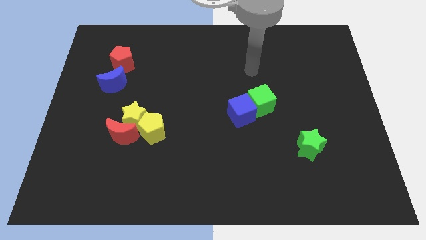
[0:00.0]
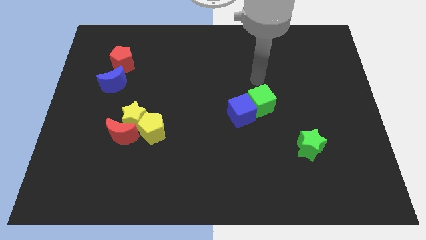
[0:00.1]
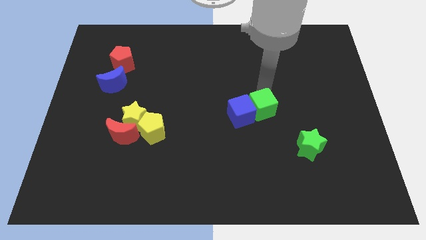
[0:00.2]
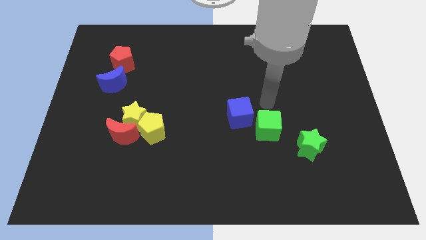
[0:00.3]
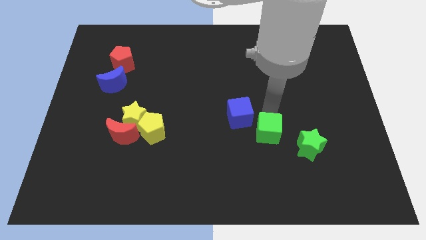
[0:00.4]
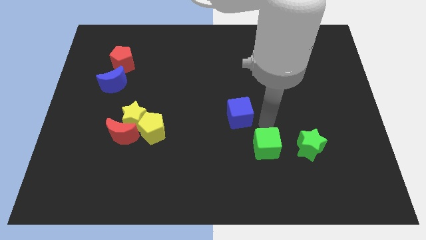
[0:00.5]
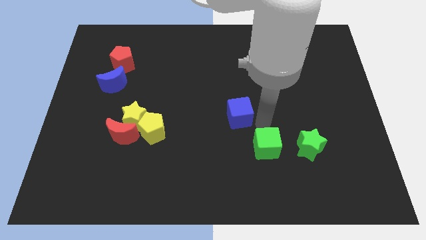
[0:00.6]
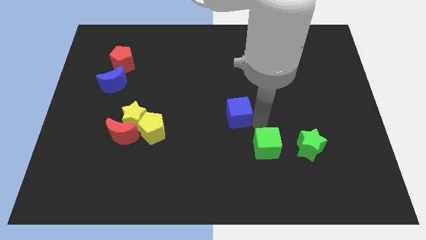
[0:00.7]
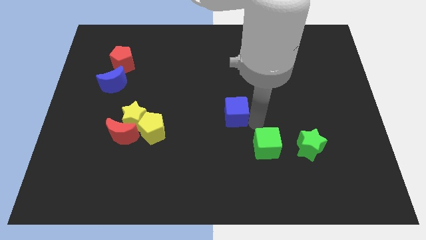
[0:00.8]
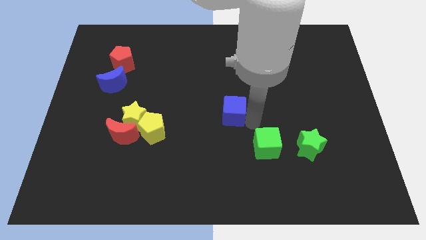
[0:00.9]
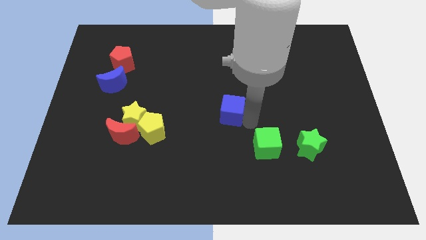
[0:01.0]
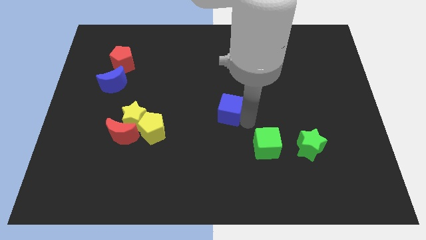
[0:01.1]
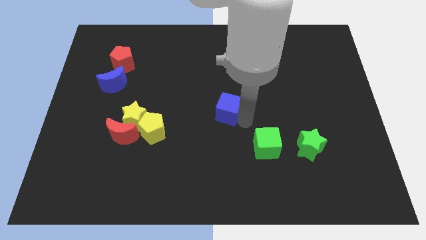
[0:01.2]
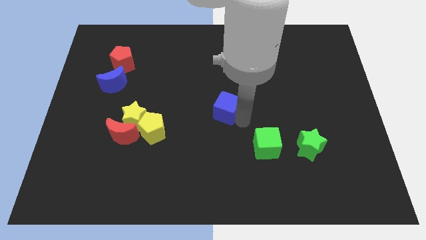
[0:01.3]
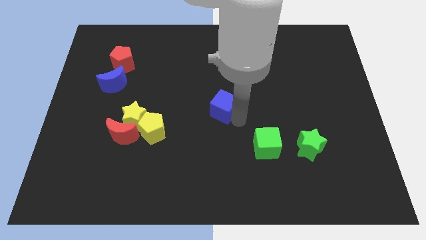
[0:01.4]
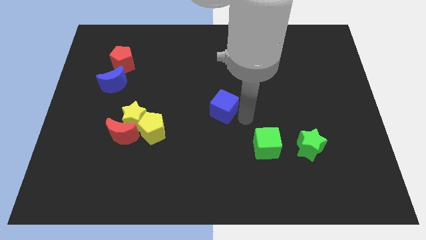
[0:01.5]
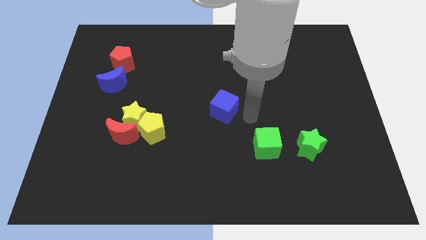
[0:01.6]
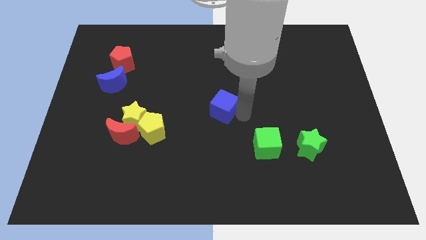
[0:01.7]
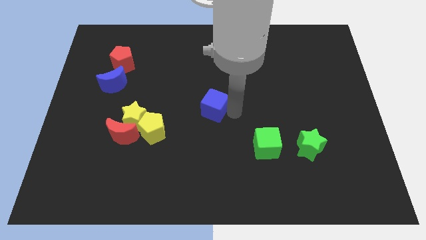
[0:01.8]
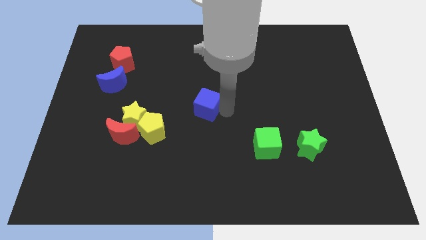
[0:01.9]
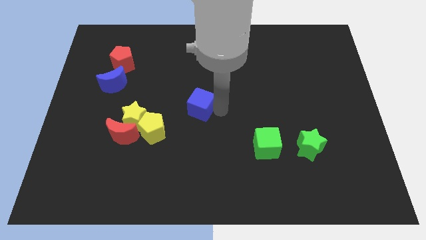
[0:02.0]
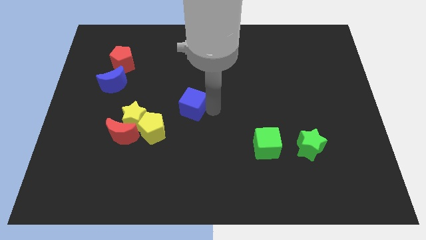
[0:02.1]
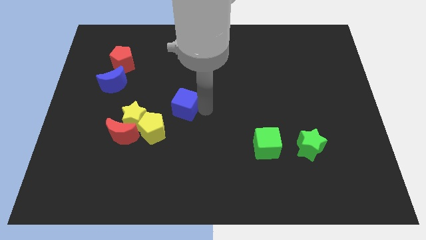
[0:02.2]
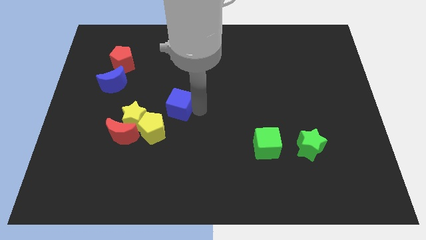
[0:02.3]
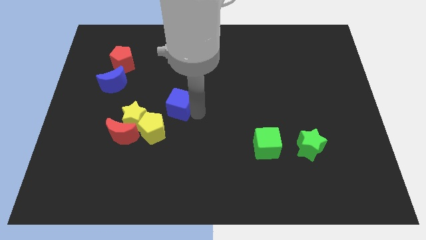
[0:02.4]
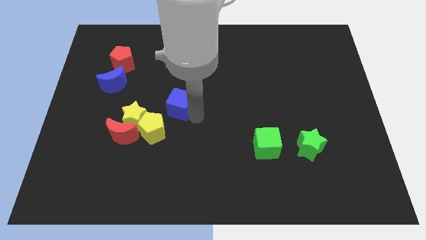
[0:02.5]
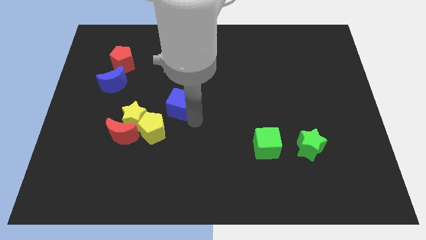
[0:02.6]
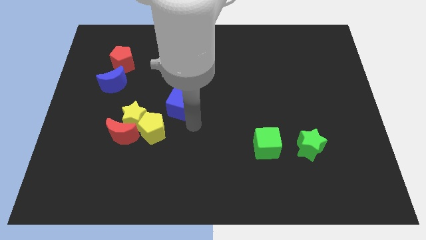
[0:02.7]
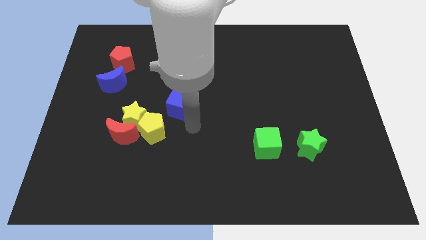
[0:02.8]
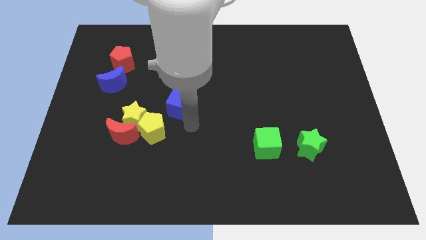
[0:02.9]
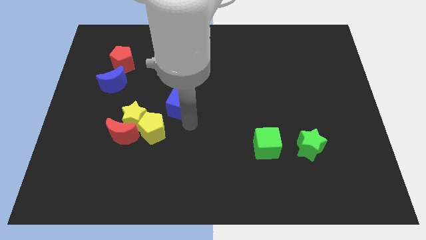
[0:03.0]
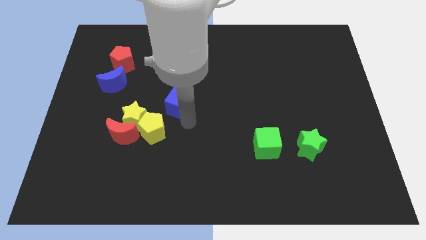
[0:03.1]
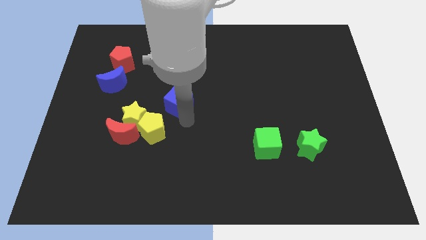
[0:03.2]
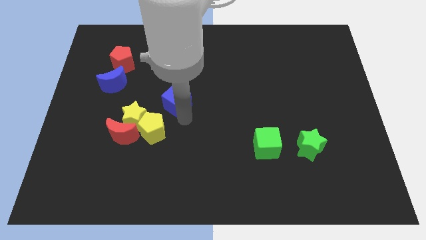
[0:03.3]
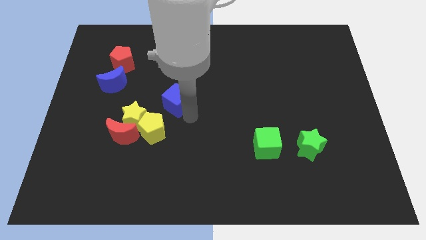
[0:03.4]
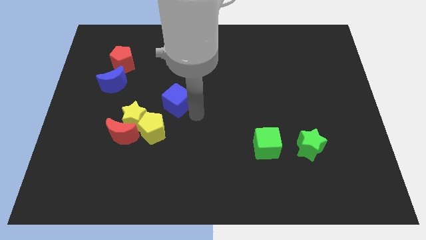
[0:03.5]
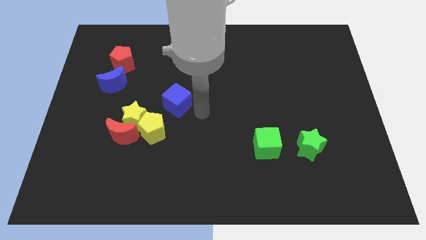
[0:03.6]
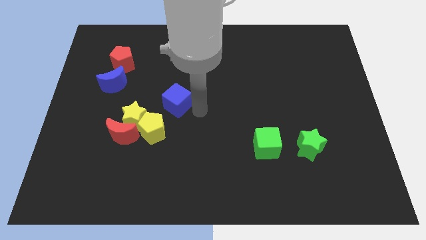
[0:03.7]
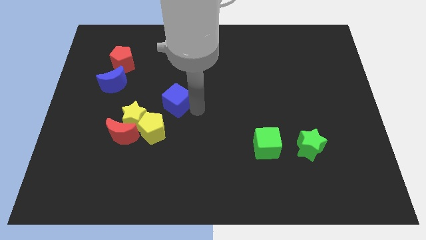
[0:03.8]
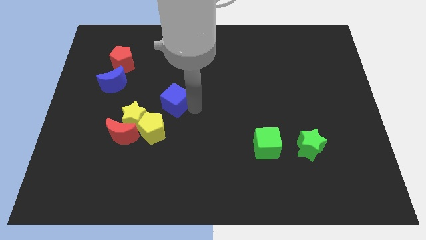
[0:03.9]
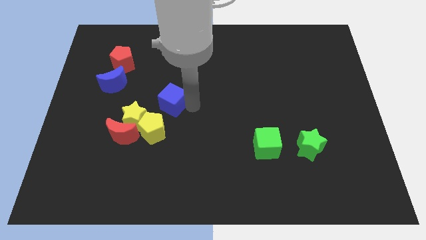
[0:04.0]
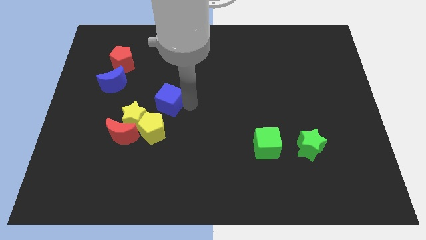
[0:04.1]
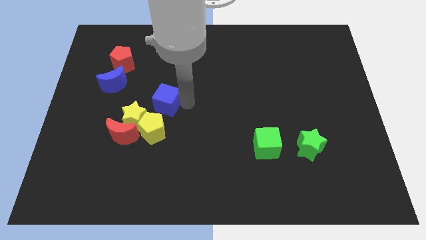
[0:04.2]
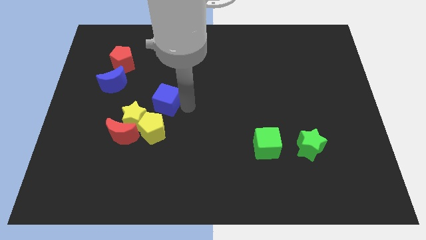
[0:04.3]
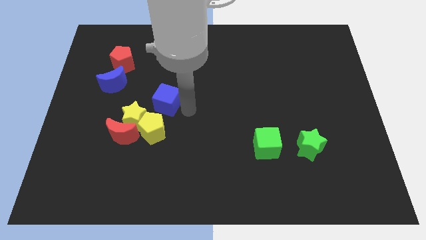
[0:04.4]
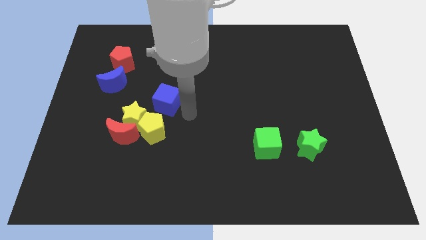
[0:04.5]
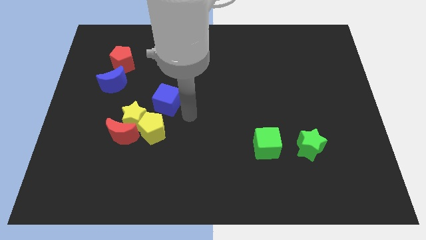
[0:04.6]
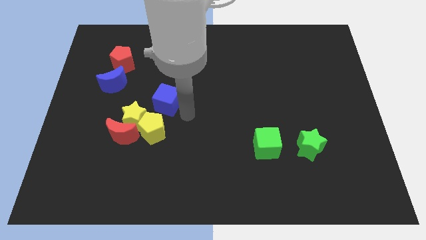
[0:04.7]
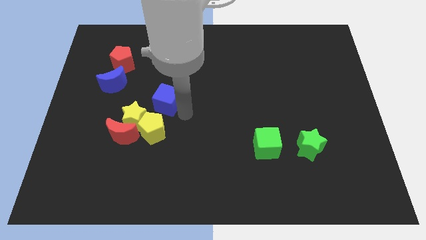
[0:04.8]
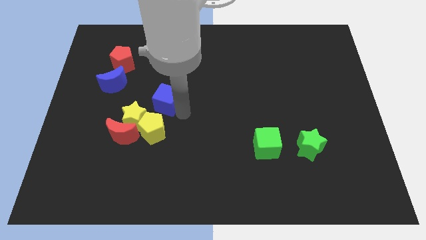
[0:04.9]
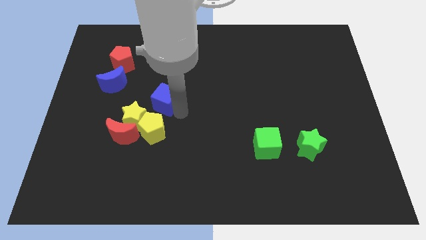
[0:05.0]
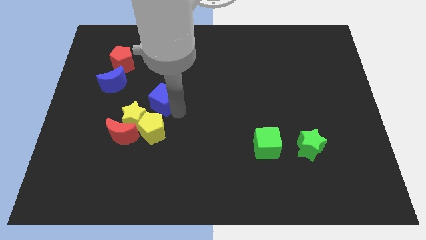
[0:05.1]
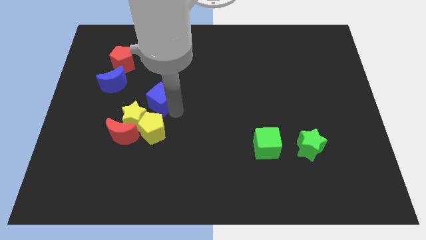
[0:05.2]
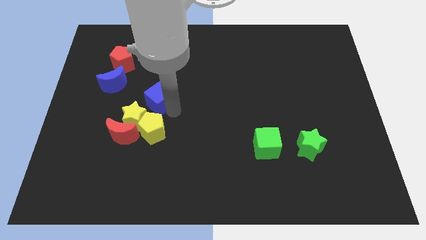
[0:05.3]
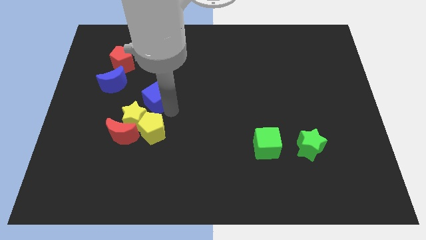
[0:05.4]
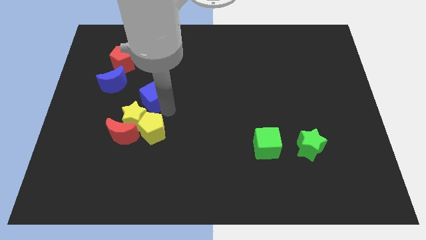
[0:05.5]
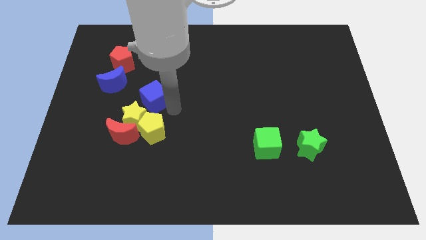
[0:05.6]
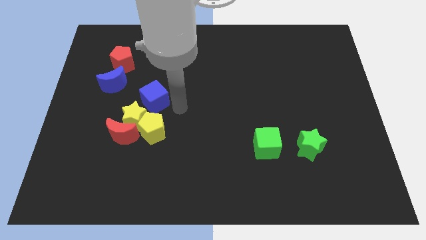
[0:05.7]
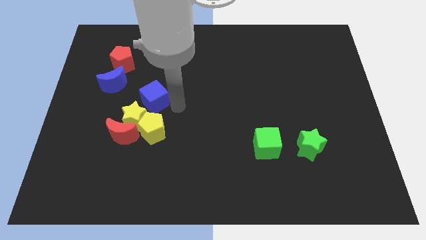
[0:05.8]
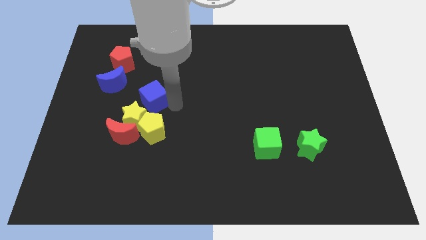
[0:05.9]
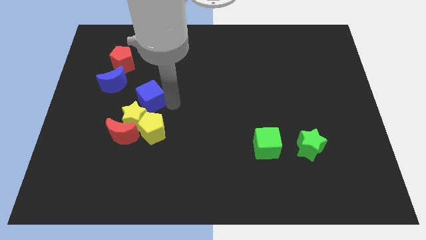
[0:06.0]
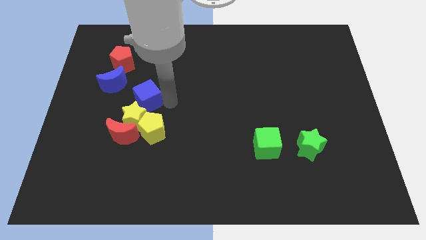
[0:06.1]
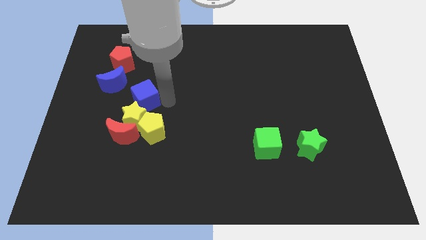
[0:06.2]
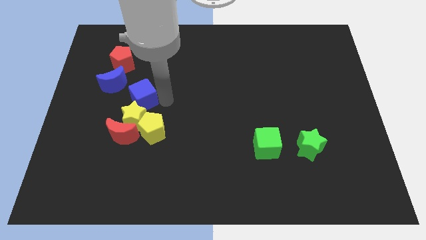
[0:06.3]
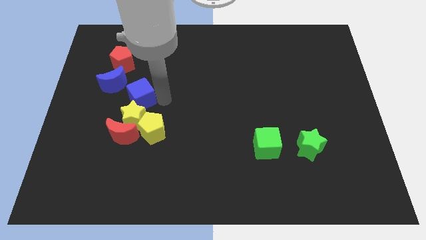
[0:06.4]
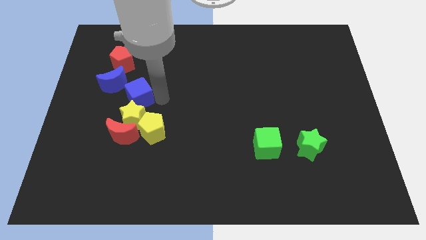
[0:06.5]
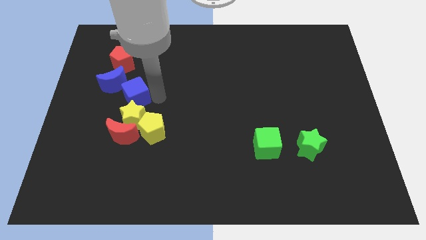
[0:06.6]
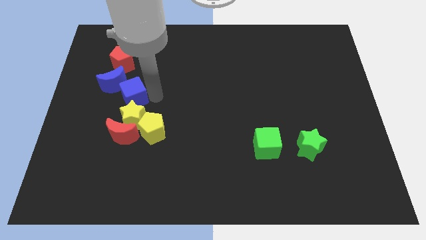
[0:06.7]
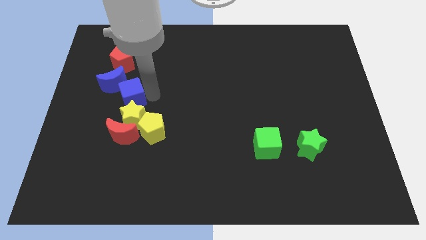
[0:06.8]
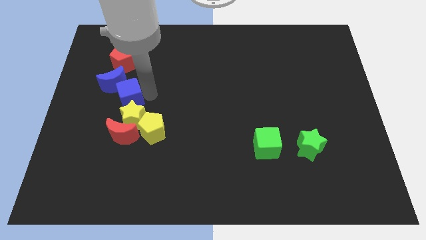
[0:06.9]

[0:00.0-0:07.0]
move the blue cube next to the blue moon
